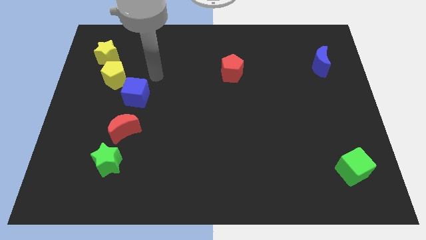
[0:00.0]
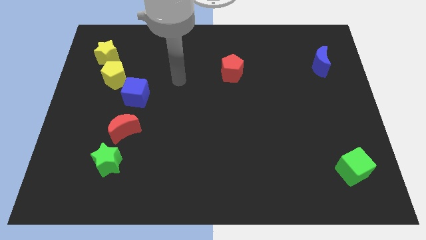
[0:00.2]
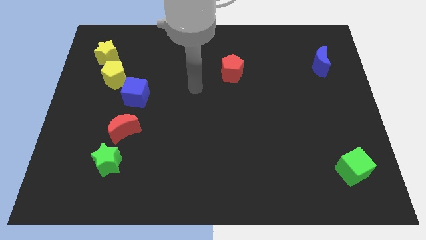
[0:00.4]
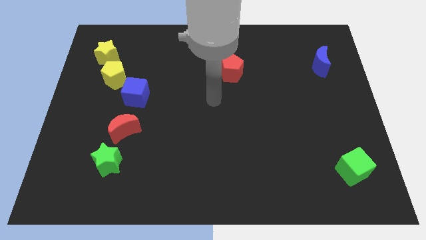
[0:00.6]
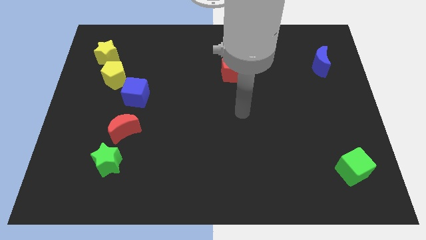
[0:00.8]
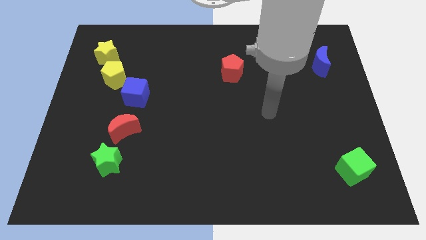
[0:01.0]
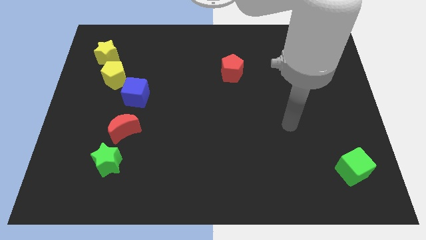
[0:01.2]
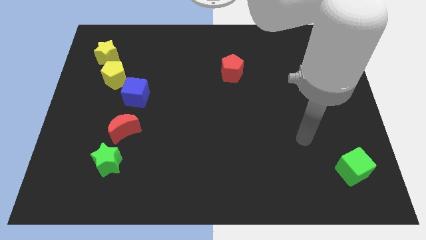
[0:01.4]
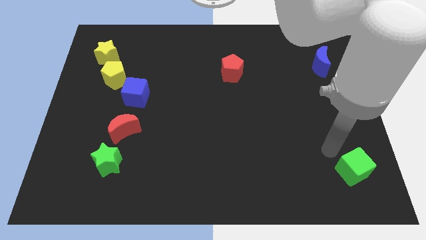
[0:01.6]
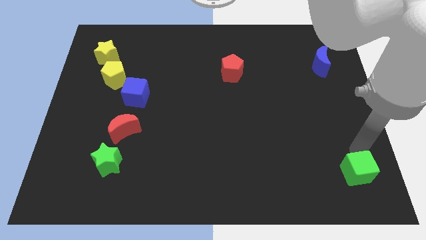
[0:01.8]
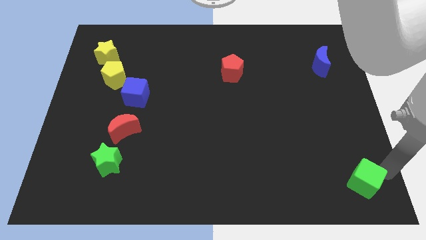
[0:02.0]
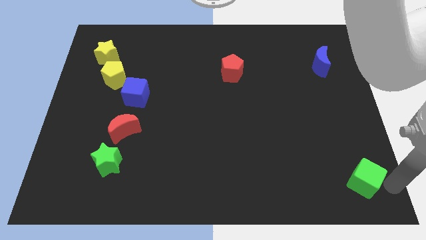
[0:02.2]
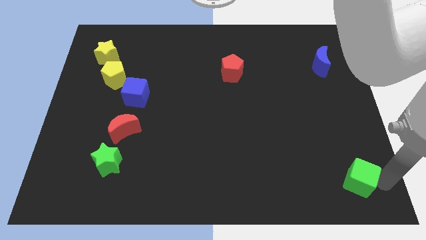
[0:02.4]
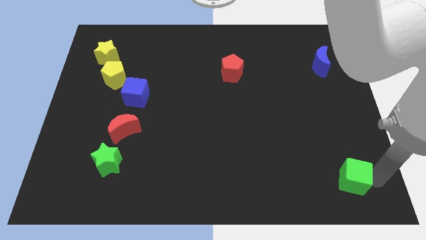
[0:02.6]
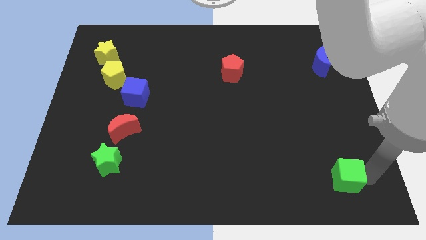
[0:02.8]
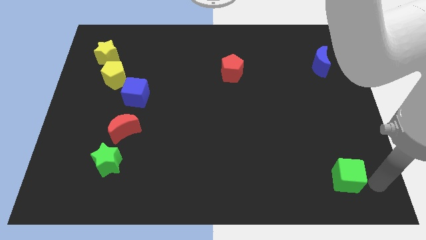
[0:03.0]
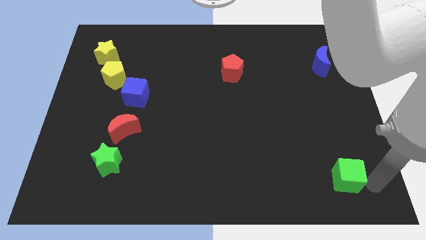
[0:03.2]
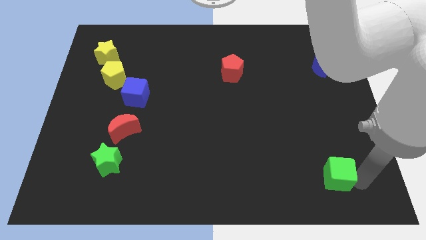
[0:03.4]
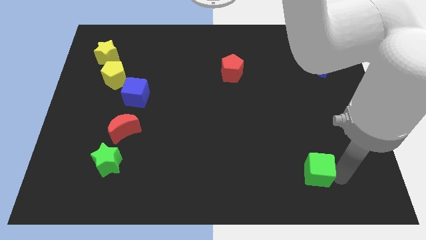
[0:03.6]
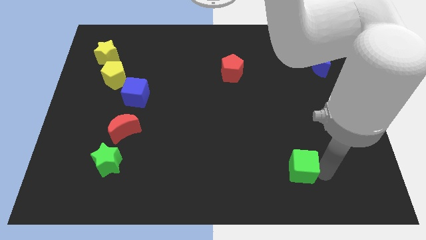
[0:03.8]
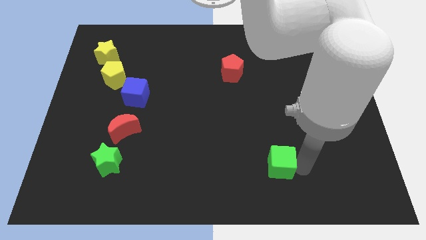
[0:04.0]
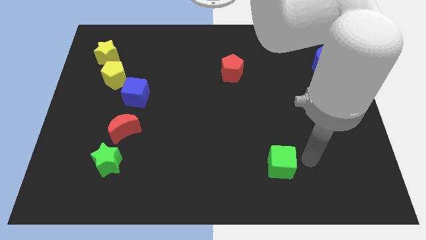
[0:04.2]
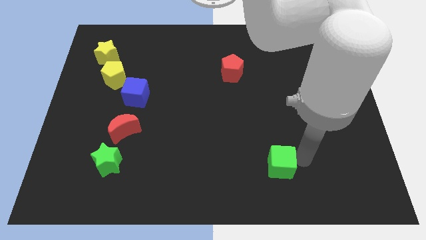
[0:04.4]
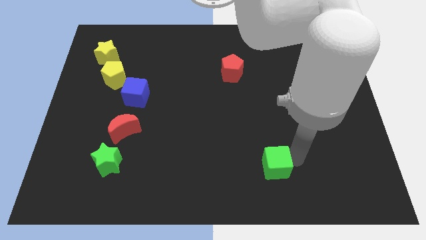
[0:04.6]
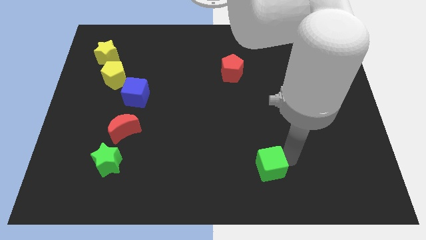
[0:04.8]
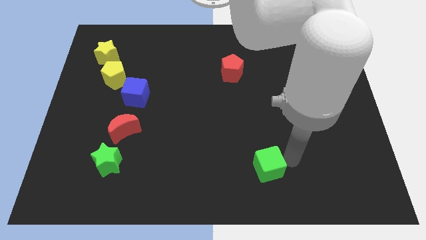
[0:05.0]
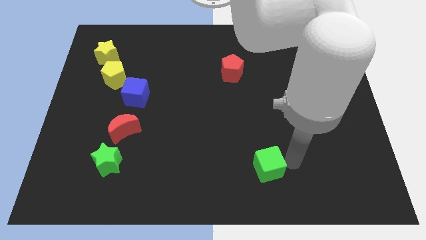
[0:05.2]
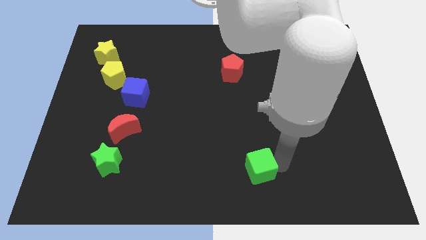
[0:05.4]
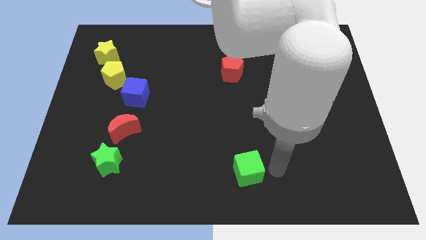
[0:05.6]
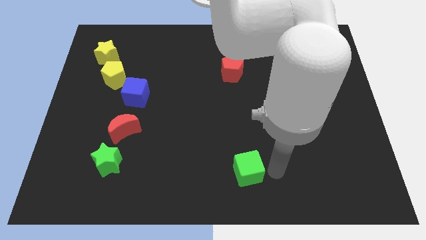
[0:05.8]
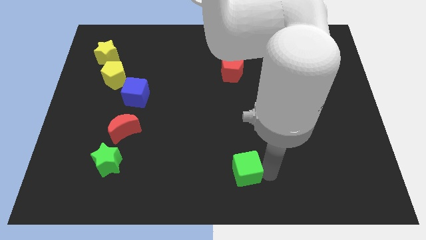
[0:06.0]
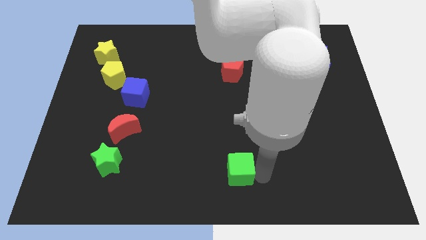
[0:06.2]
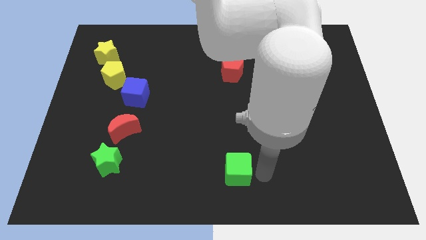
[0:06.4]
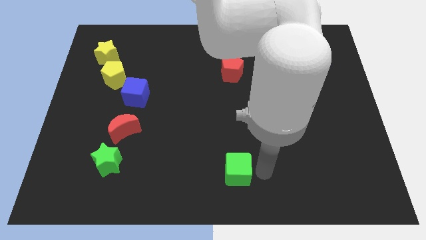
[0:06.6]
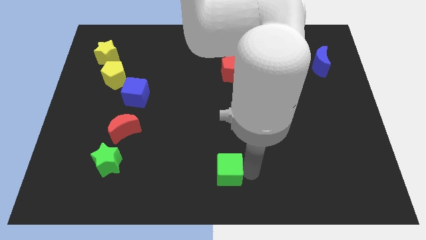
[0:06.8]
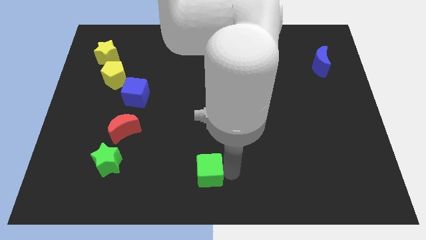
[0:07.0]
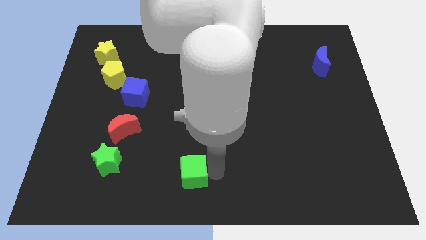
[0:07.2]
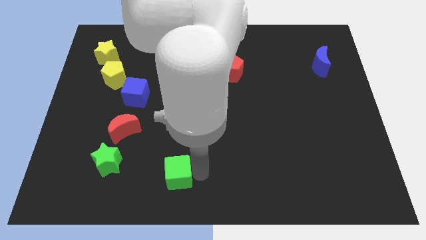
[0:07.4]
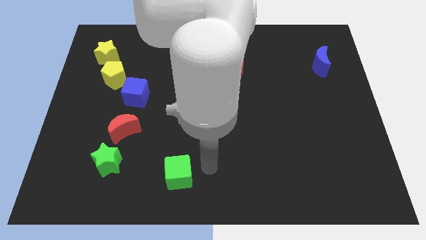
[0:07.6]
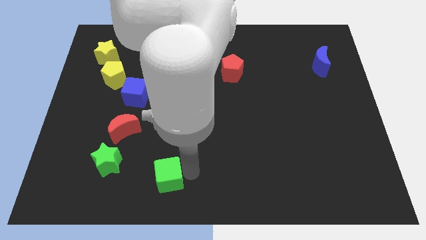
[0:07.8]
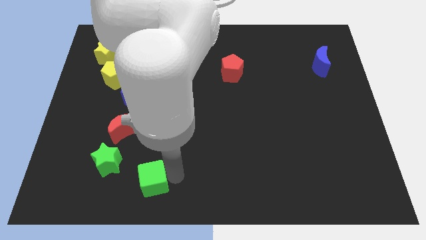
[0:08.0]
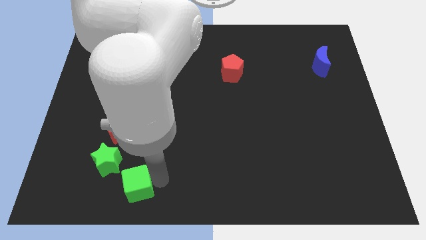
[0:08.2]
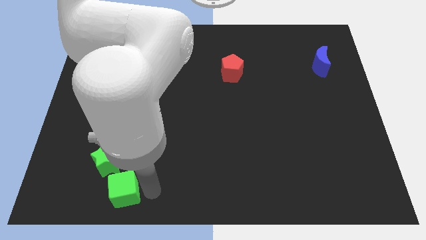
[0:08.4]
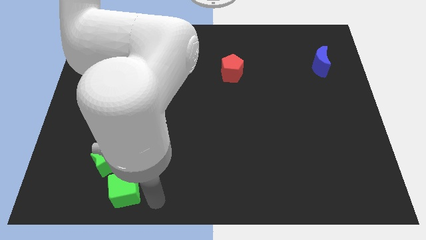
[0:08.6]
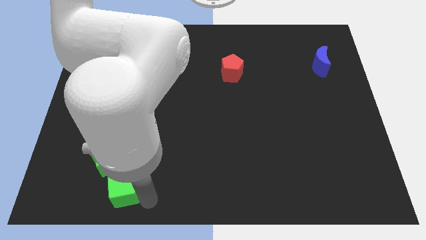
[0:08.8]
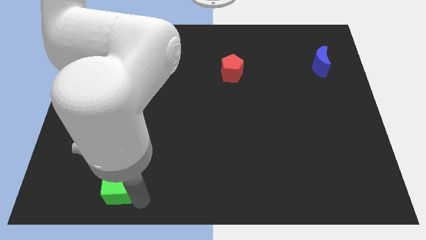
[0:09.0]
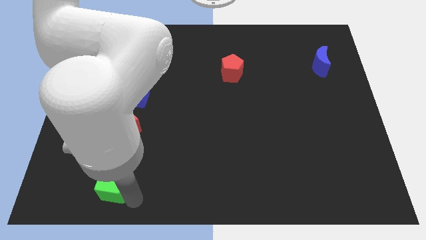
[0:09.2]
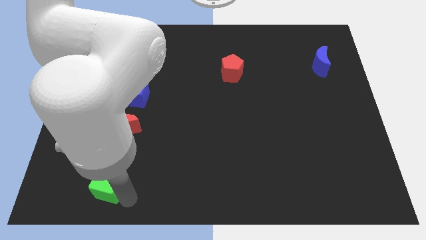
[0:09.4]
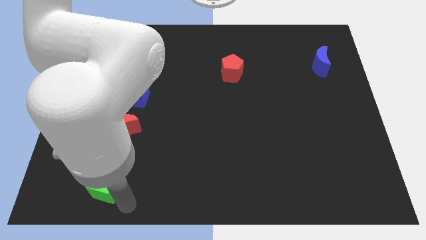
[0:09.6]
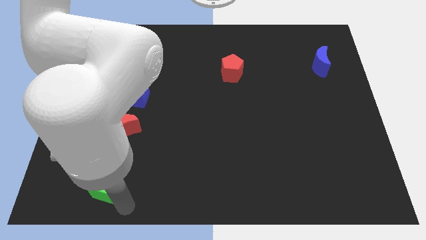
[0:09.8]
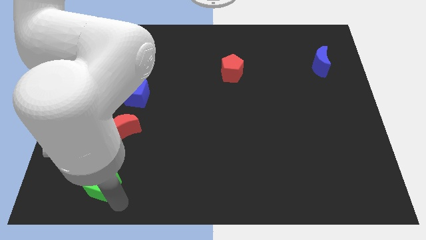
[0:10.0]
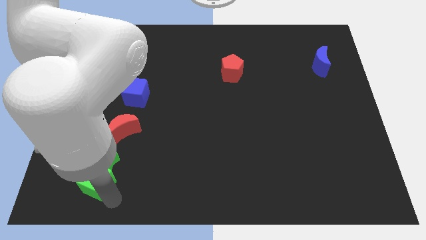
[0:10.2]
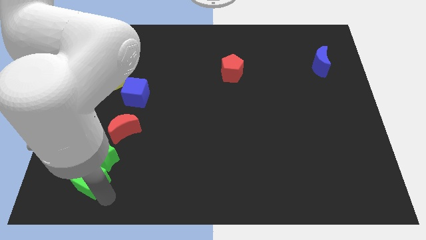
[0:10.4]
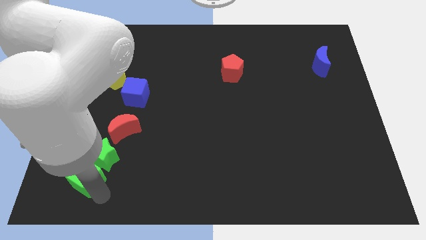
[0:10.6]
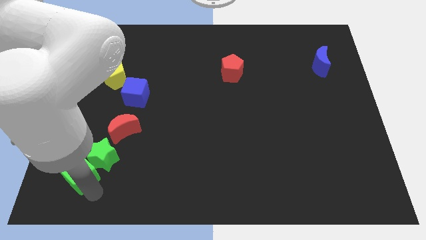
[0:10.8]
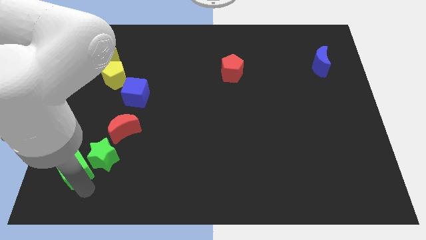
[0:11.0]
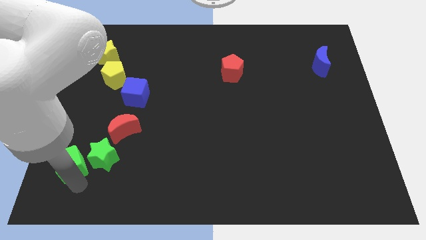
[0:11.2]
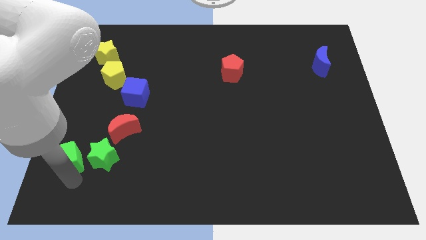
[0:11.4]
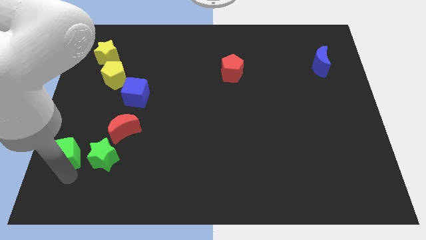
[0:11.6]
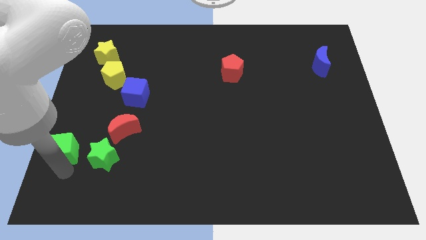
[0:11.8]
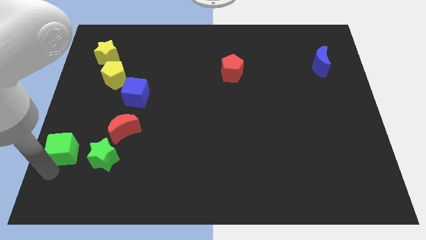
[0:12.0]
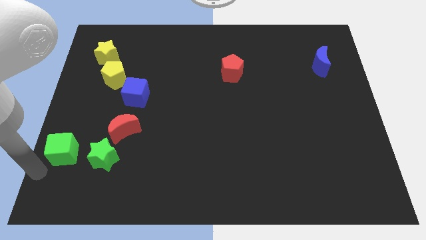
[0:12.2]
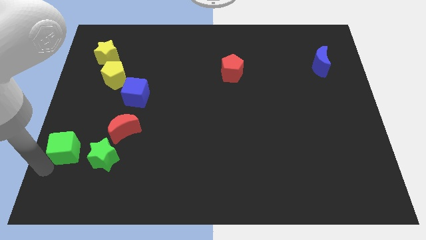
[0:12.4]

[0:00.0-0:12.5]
slide the green cube diagonally up and to the left of the green star

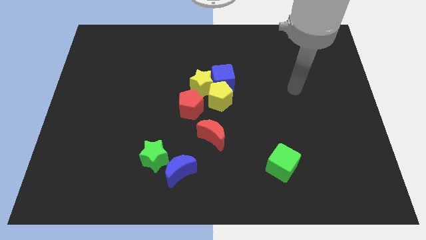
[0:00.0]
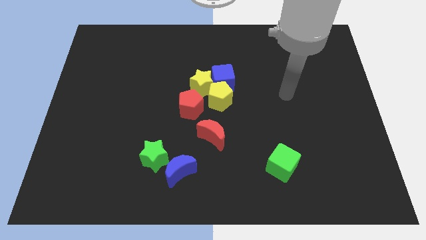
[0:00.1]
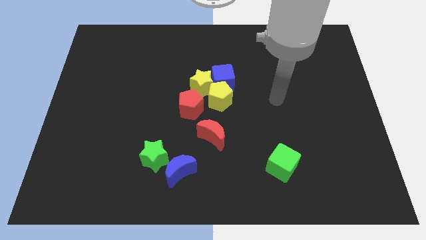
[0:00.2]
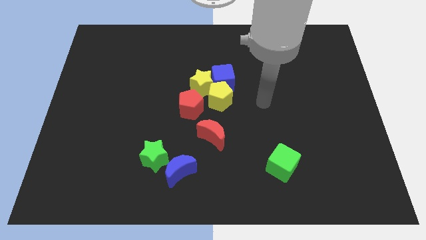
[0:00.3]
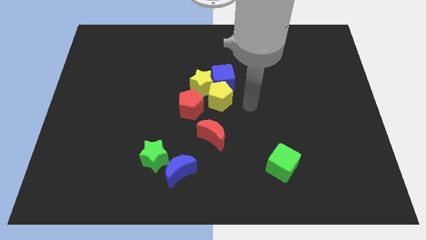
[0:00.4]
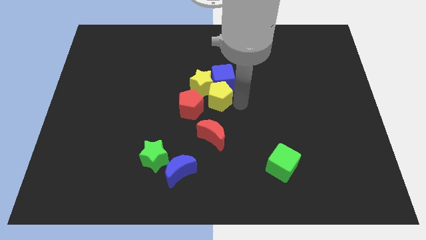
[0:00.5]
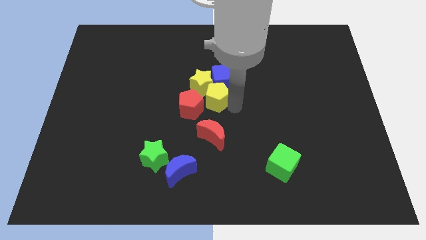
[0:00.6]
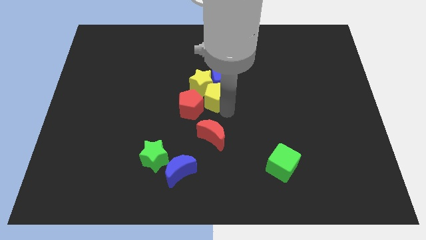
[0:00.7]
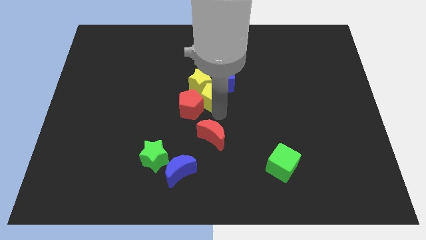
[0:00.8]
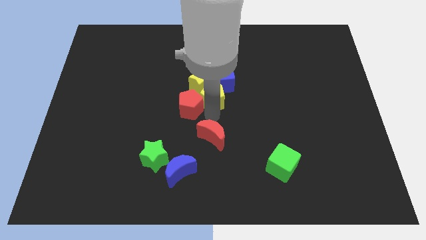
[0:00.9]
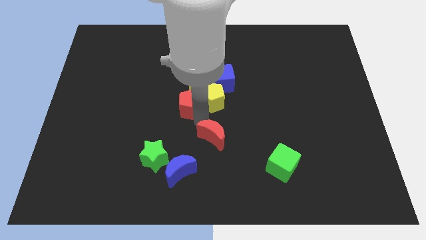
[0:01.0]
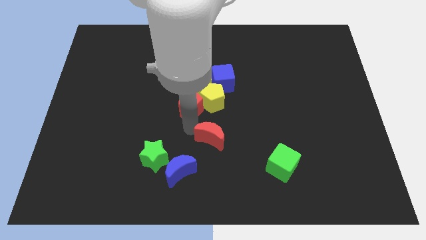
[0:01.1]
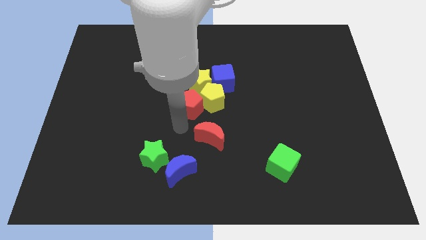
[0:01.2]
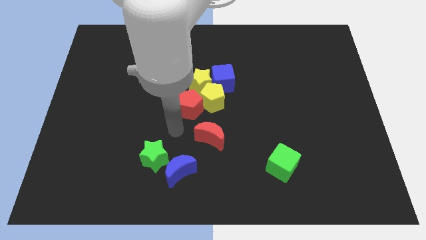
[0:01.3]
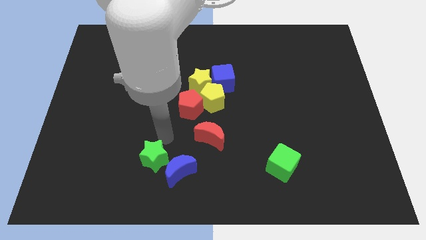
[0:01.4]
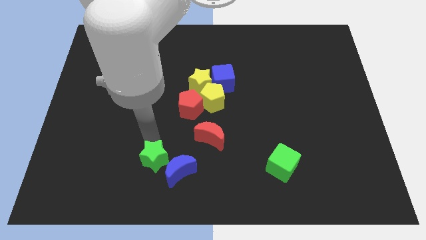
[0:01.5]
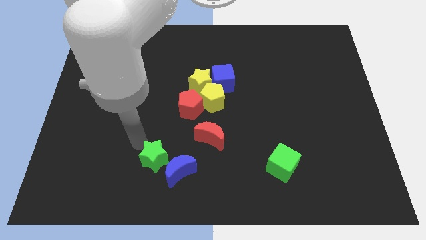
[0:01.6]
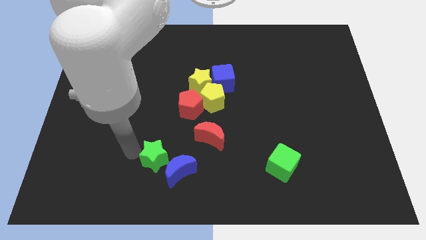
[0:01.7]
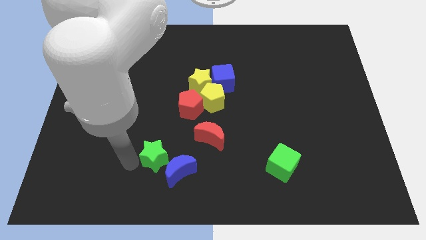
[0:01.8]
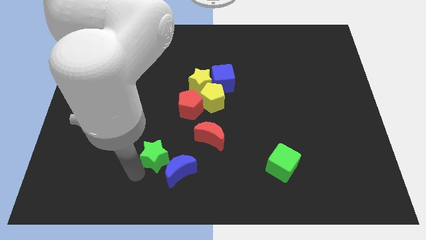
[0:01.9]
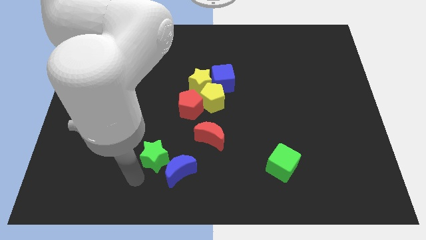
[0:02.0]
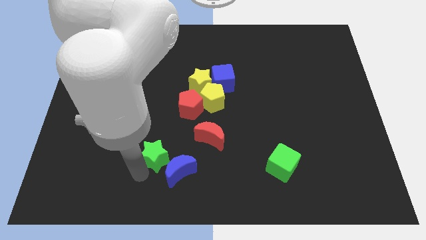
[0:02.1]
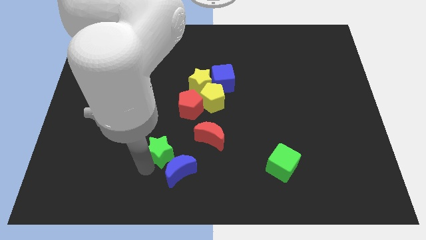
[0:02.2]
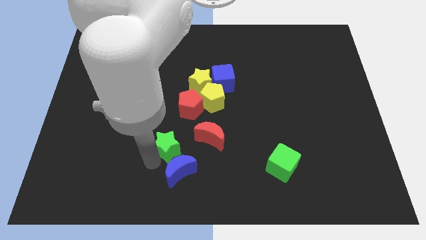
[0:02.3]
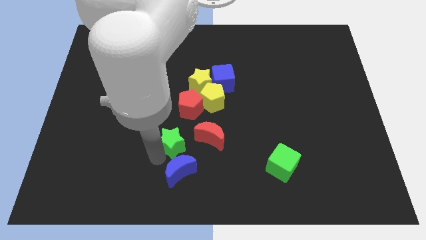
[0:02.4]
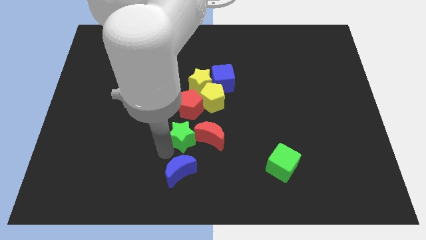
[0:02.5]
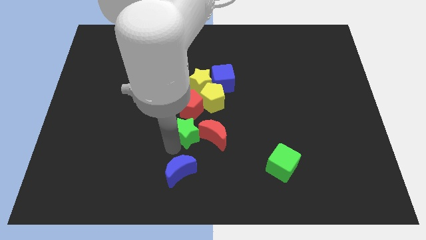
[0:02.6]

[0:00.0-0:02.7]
slide the green star to the bottom left side of the yellow pentagon
